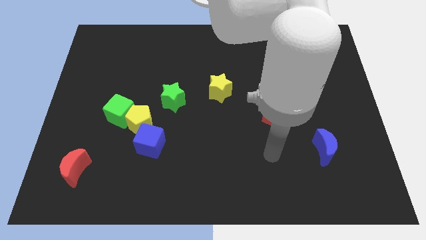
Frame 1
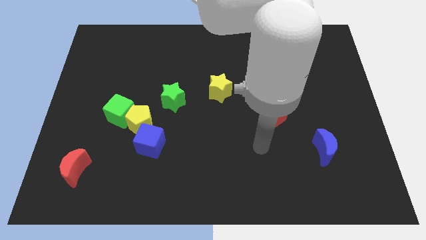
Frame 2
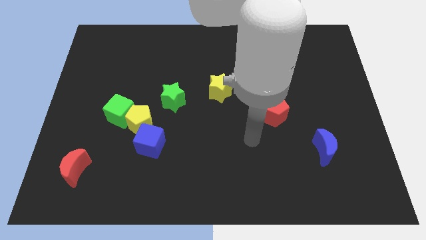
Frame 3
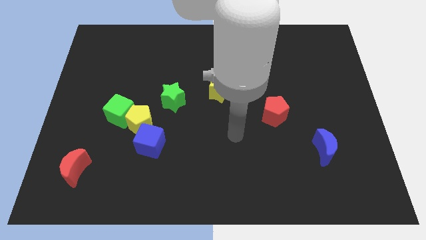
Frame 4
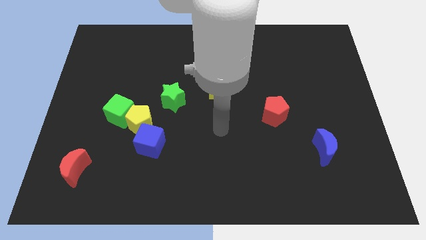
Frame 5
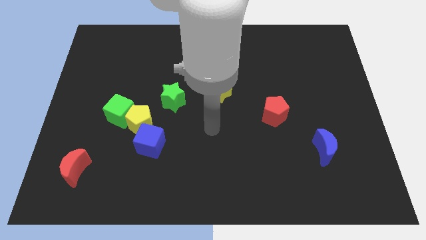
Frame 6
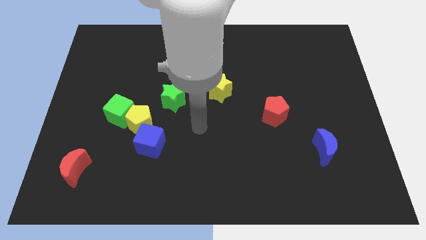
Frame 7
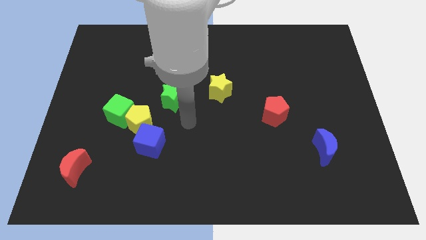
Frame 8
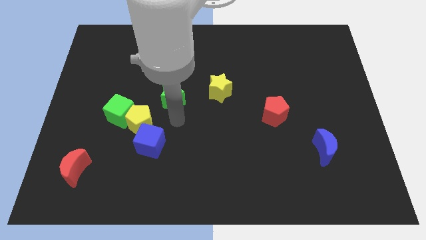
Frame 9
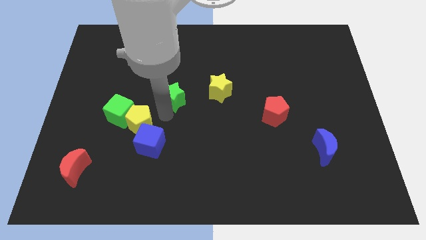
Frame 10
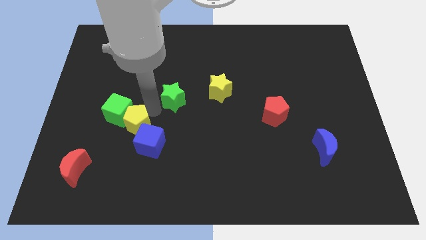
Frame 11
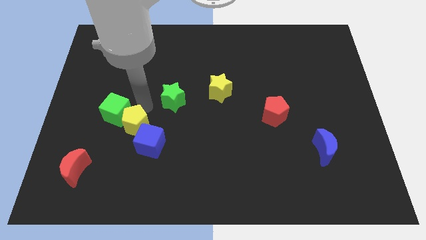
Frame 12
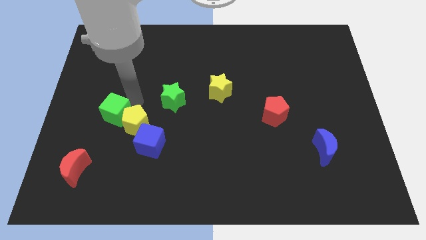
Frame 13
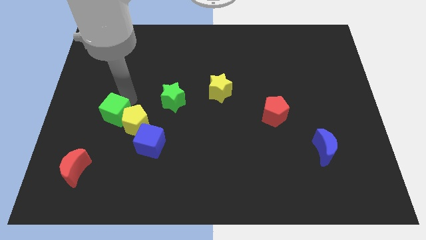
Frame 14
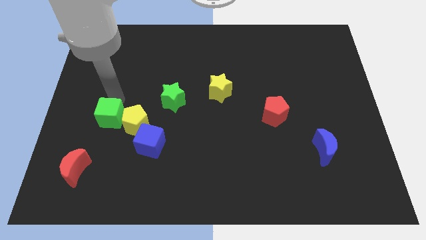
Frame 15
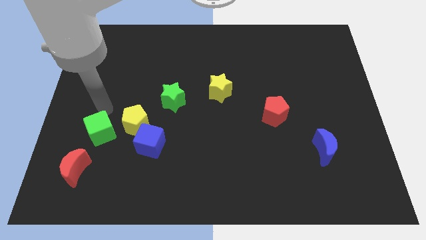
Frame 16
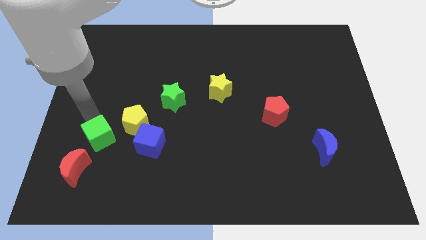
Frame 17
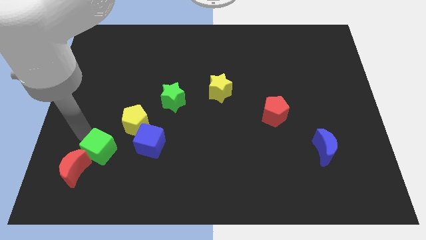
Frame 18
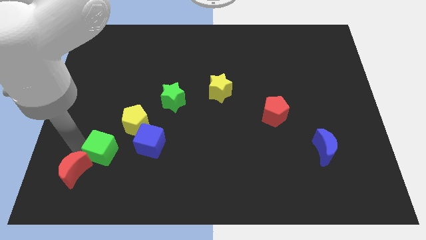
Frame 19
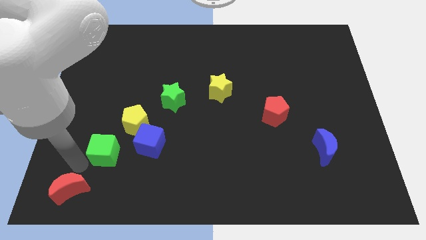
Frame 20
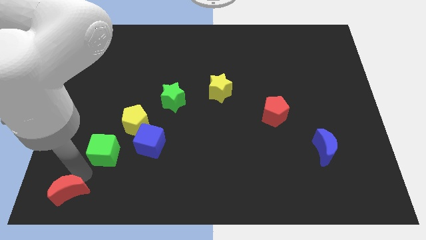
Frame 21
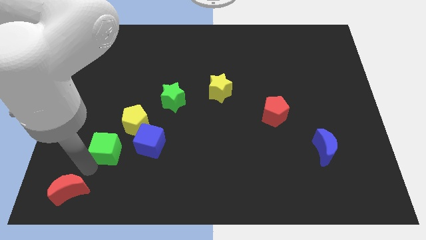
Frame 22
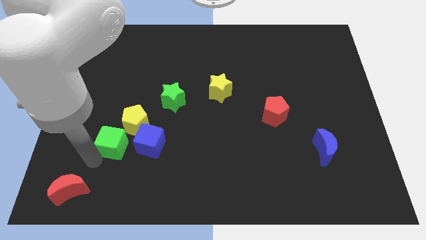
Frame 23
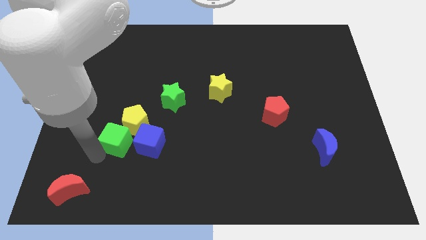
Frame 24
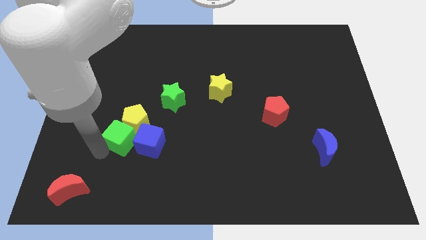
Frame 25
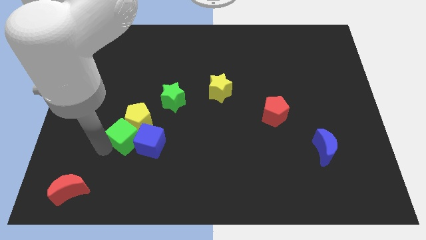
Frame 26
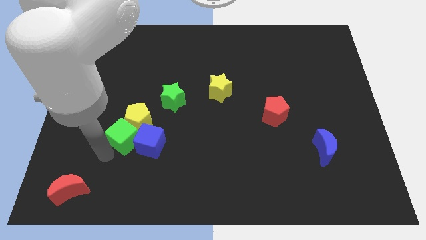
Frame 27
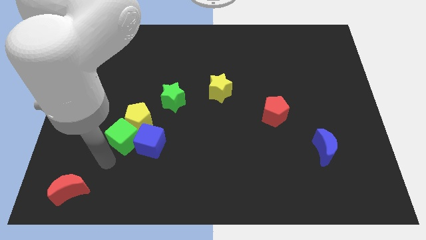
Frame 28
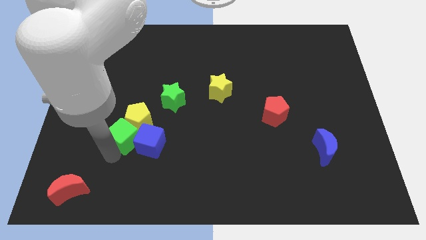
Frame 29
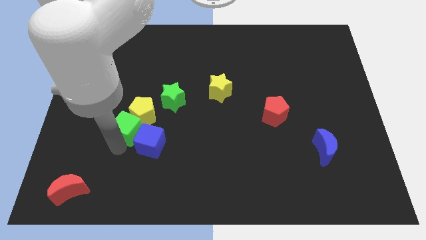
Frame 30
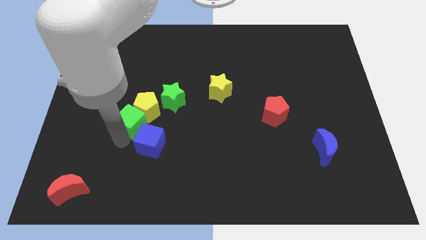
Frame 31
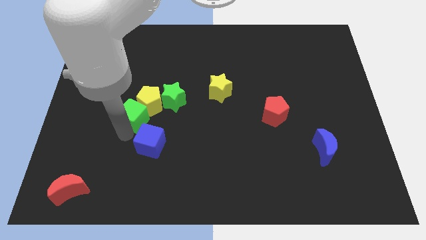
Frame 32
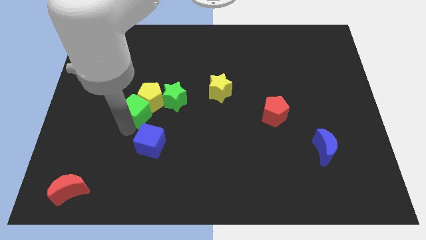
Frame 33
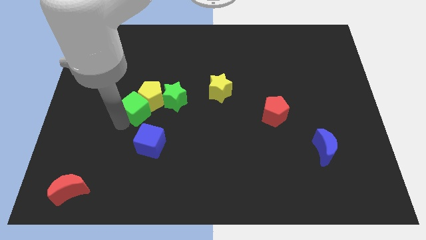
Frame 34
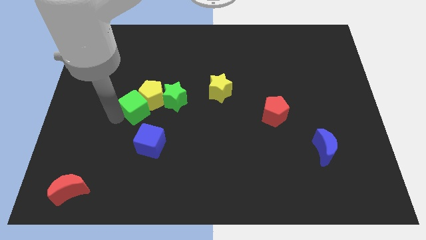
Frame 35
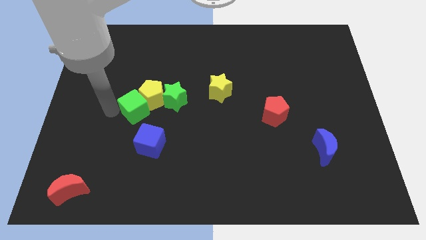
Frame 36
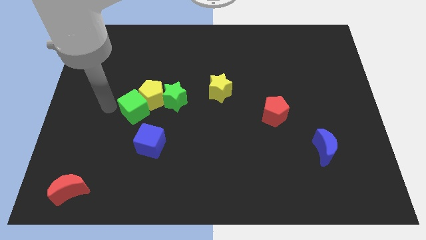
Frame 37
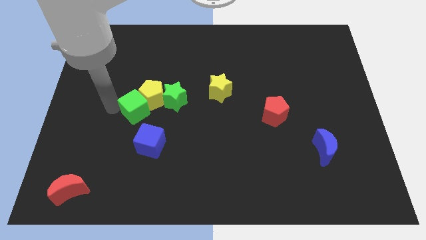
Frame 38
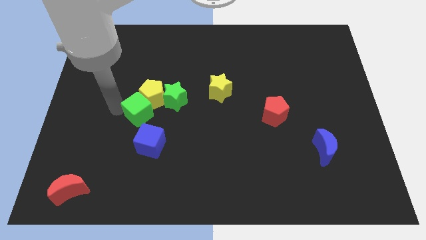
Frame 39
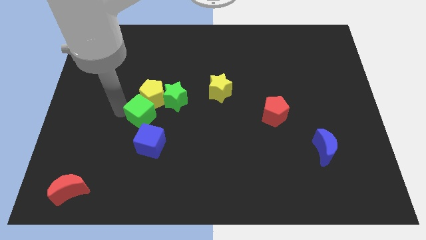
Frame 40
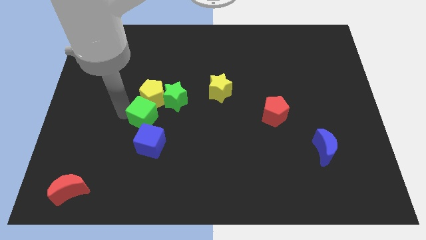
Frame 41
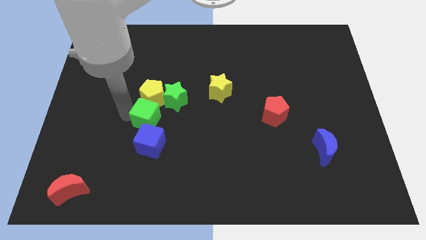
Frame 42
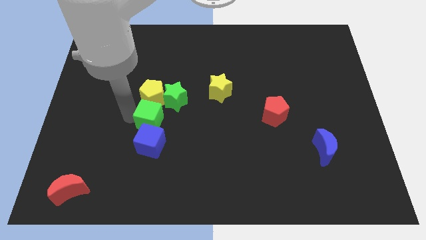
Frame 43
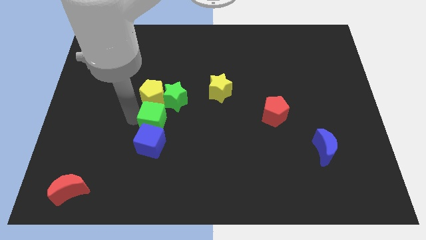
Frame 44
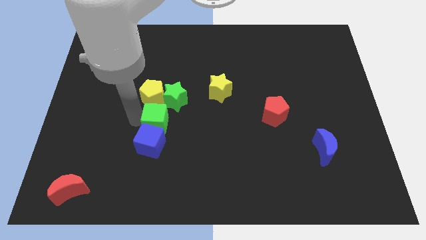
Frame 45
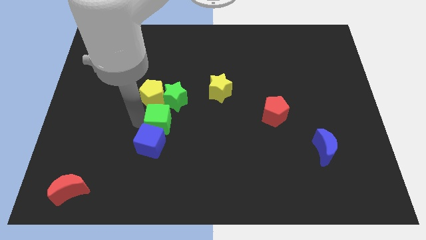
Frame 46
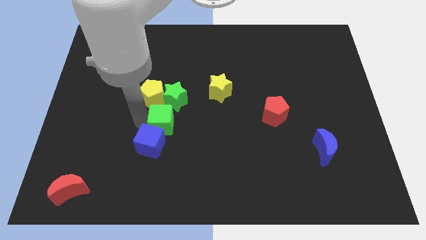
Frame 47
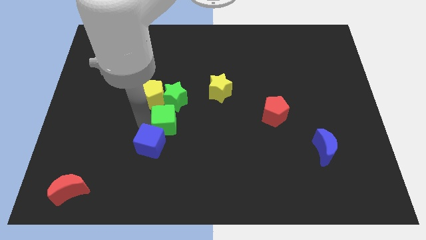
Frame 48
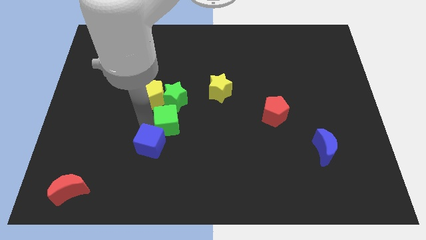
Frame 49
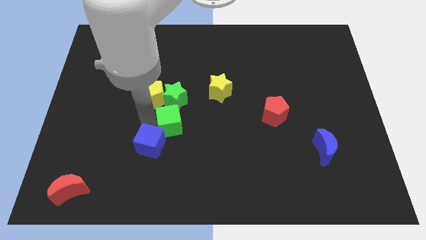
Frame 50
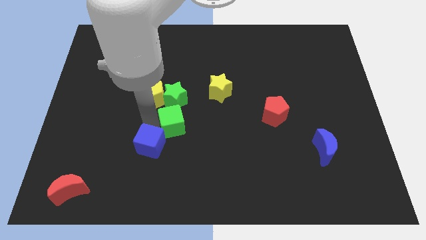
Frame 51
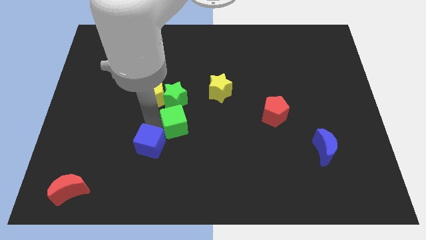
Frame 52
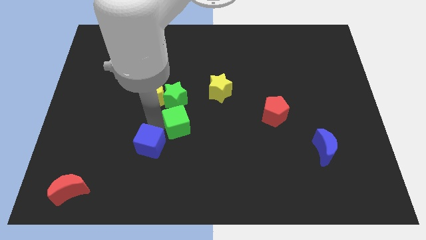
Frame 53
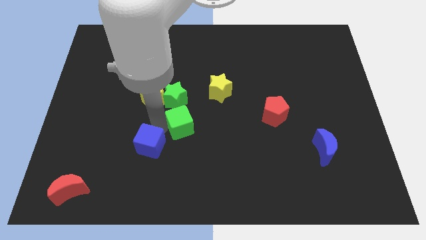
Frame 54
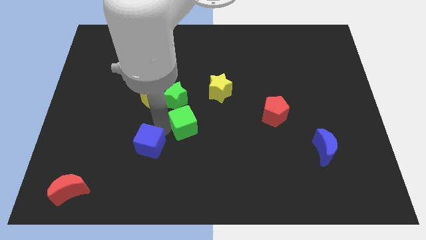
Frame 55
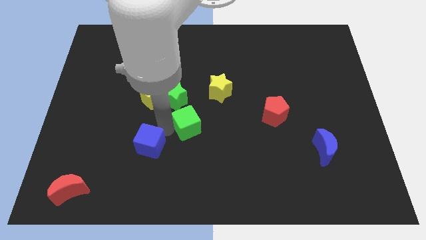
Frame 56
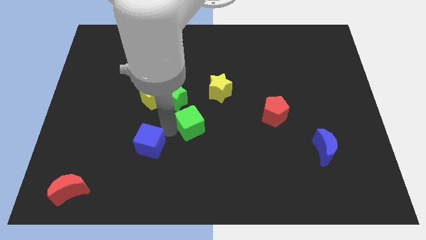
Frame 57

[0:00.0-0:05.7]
move the green cube diagonally down and to the left of the yellow star
